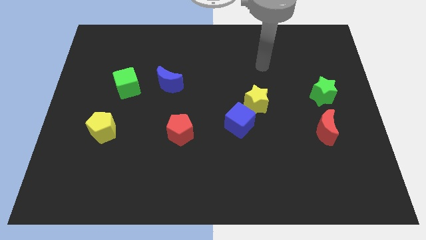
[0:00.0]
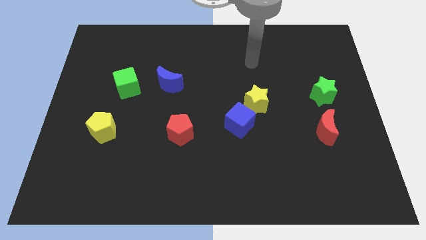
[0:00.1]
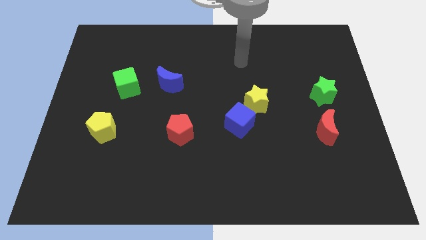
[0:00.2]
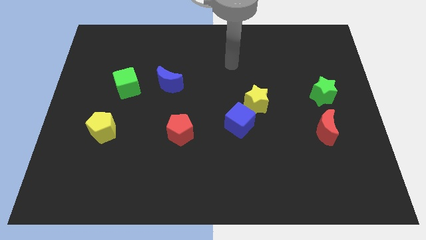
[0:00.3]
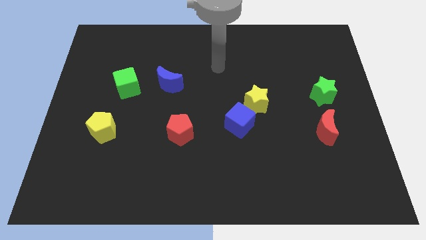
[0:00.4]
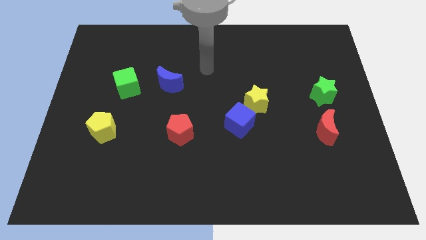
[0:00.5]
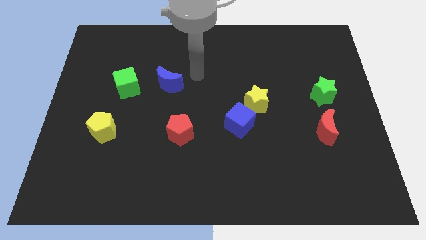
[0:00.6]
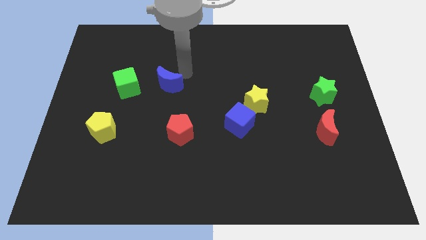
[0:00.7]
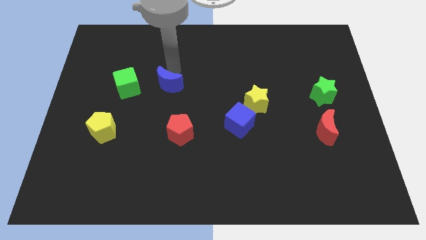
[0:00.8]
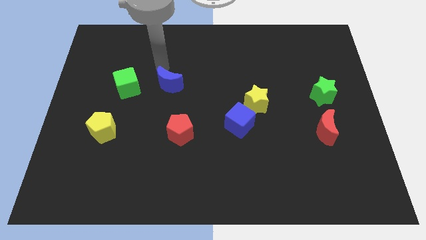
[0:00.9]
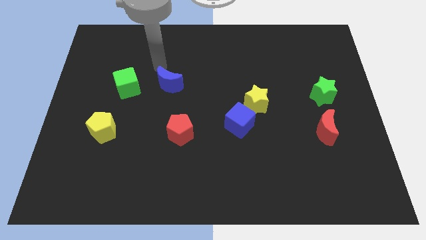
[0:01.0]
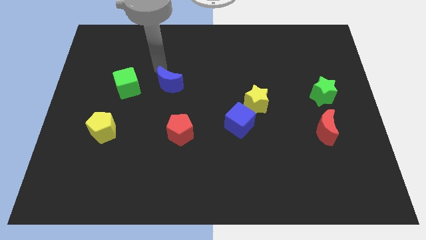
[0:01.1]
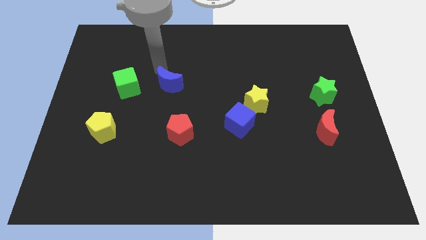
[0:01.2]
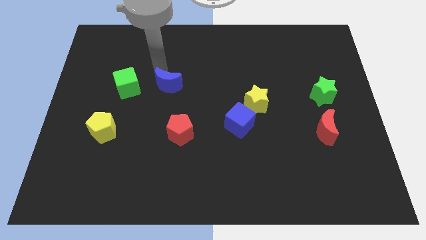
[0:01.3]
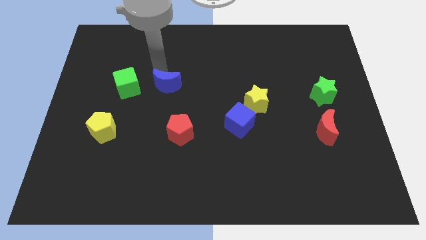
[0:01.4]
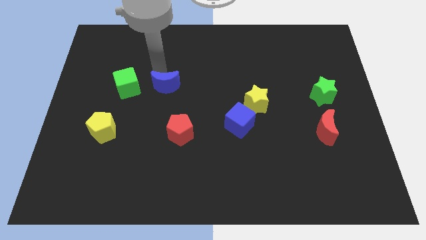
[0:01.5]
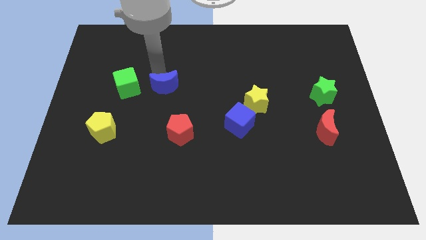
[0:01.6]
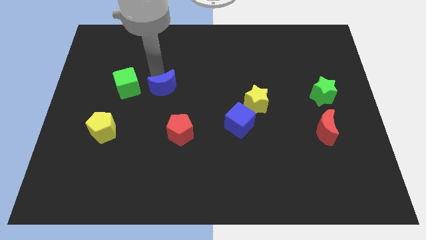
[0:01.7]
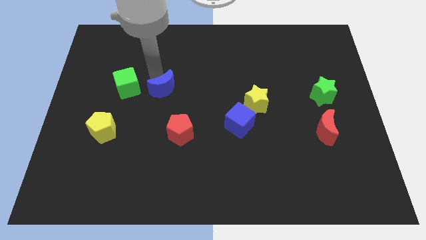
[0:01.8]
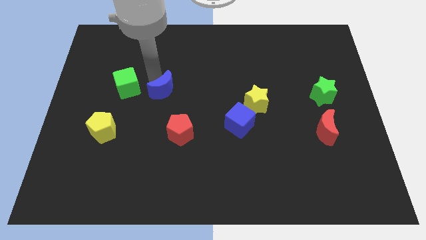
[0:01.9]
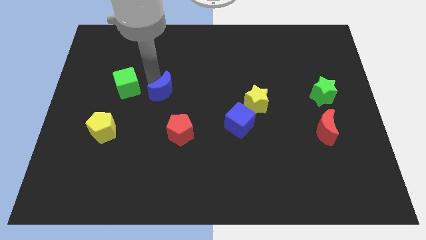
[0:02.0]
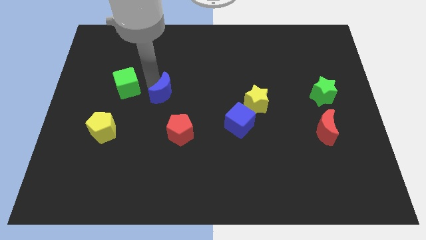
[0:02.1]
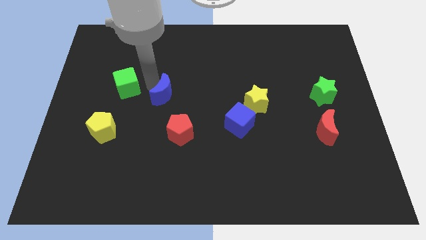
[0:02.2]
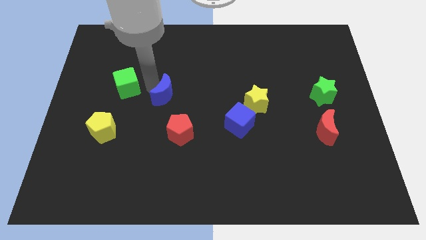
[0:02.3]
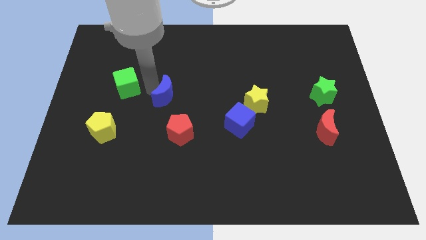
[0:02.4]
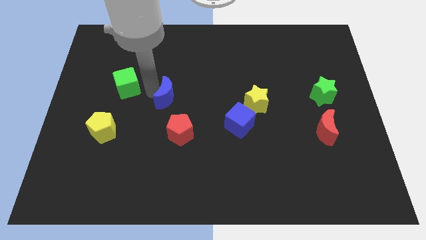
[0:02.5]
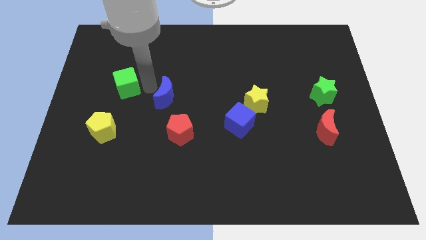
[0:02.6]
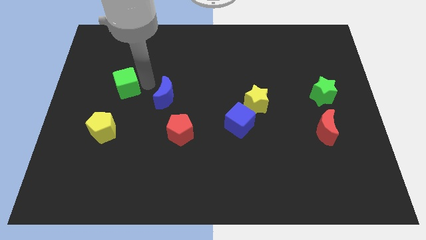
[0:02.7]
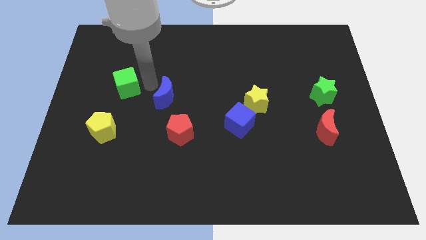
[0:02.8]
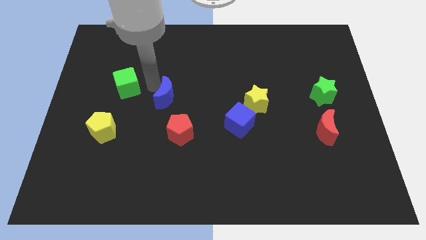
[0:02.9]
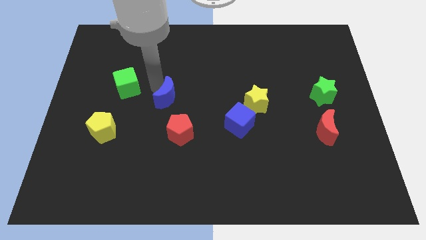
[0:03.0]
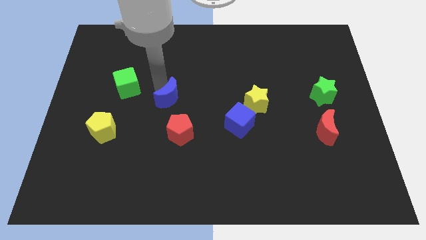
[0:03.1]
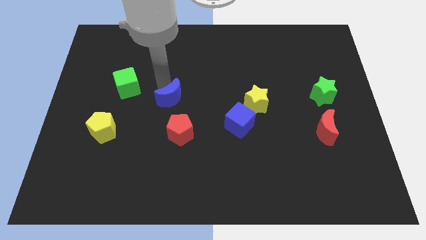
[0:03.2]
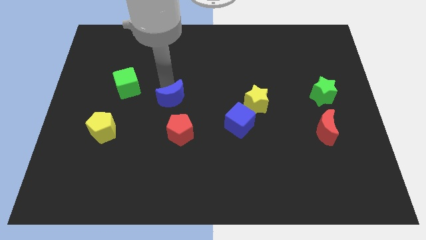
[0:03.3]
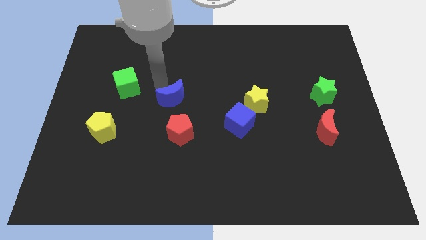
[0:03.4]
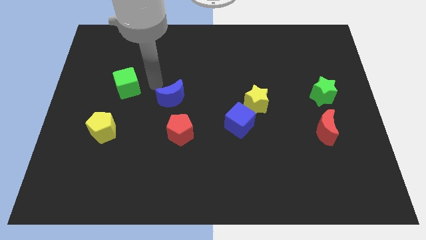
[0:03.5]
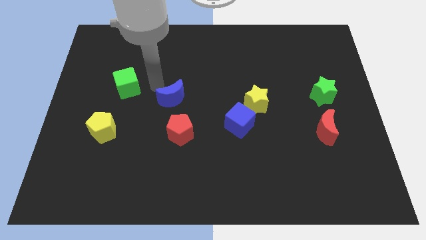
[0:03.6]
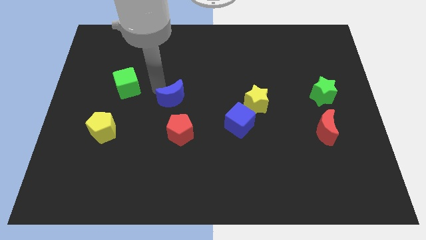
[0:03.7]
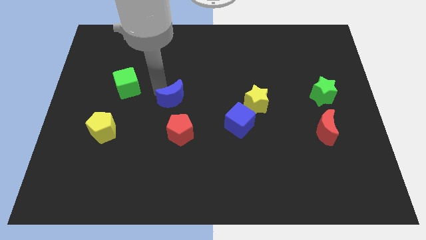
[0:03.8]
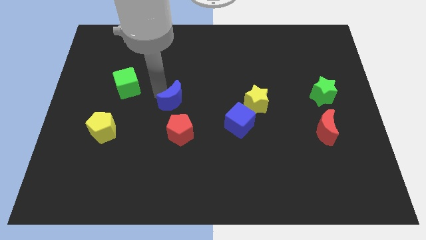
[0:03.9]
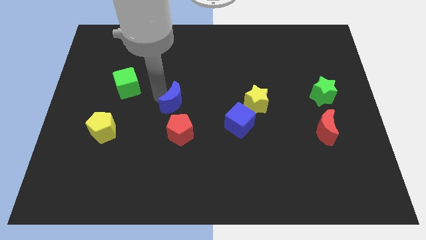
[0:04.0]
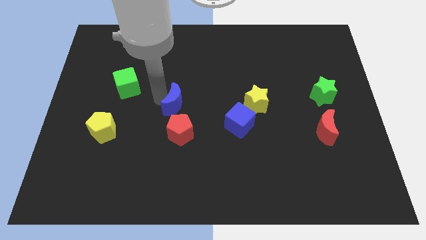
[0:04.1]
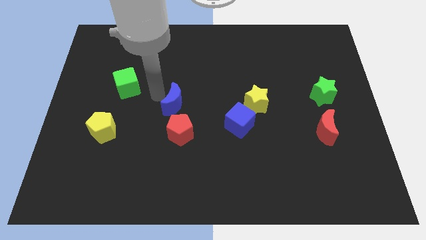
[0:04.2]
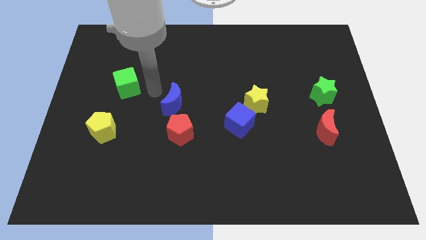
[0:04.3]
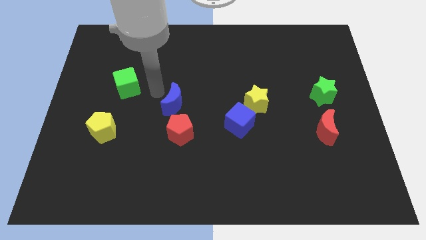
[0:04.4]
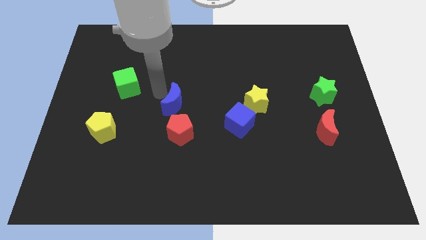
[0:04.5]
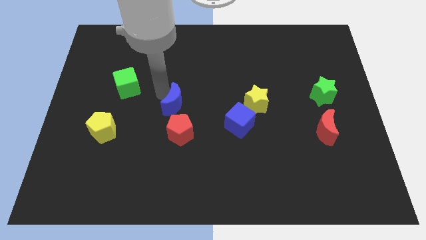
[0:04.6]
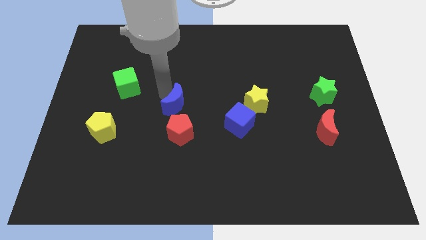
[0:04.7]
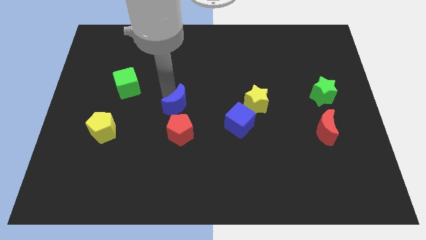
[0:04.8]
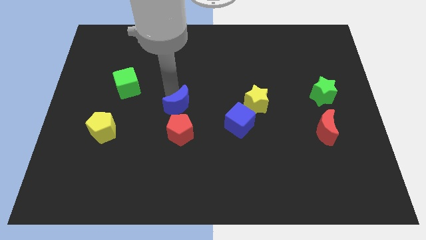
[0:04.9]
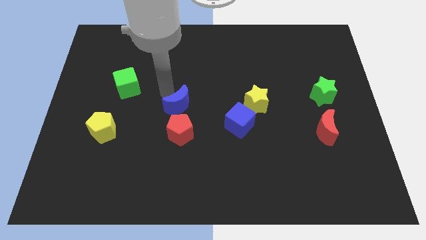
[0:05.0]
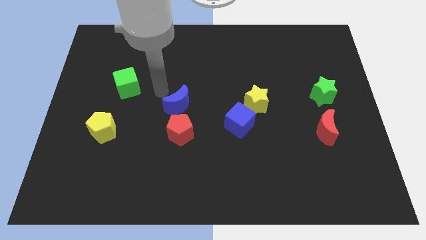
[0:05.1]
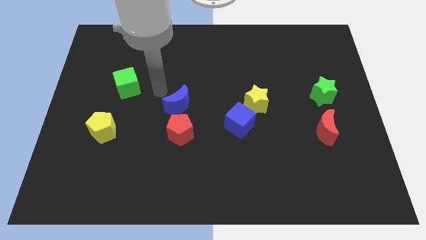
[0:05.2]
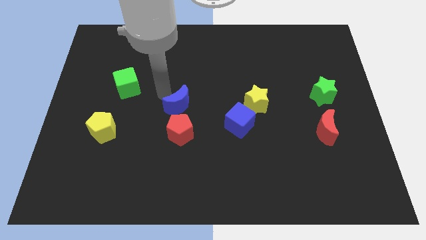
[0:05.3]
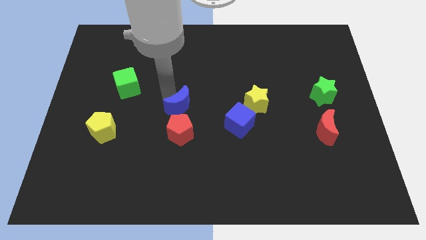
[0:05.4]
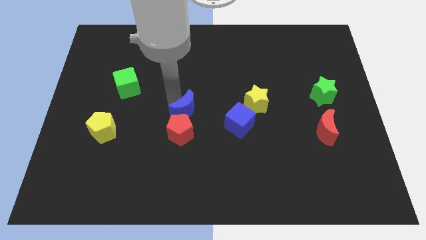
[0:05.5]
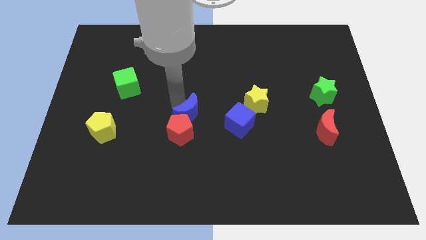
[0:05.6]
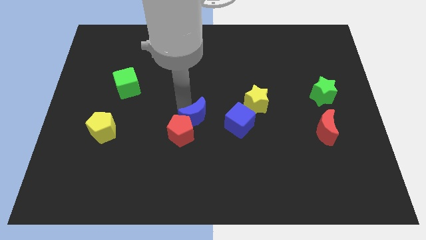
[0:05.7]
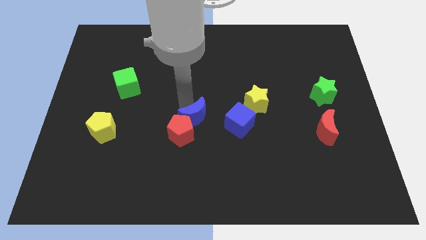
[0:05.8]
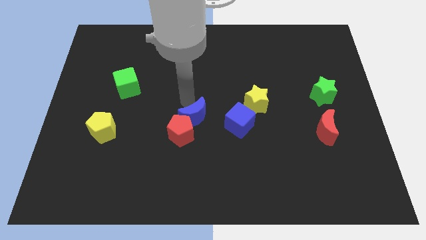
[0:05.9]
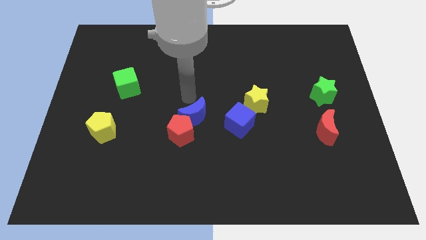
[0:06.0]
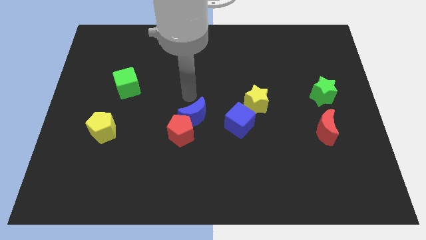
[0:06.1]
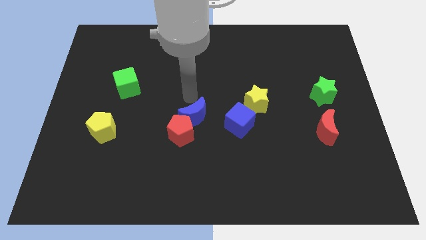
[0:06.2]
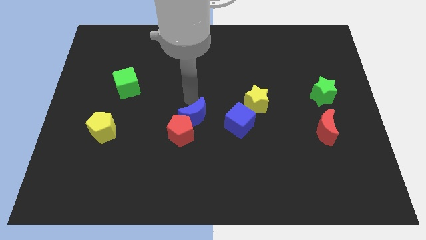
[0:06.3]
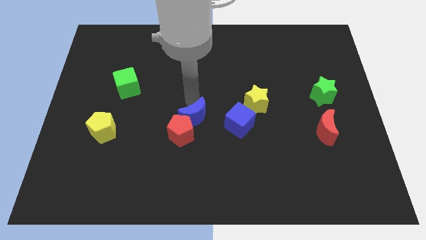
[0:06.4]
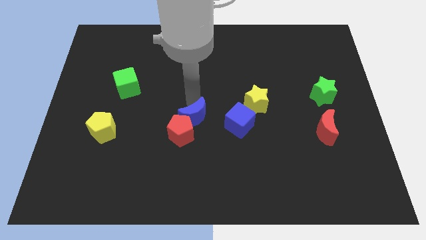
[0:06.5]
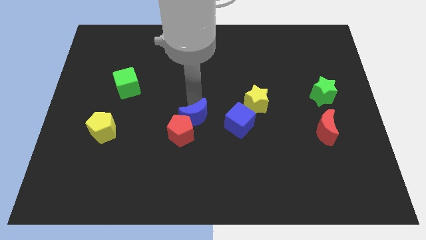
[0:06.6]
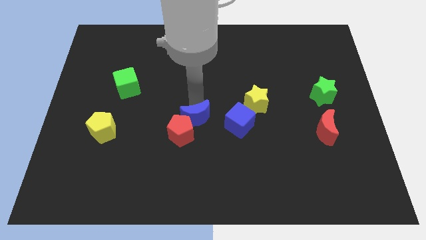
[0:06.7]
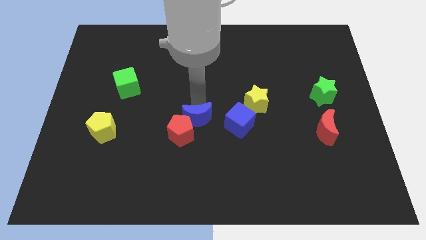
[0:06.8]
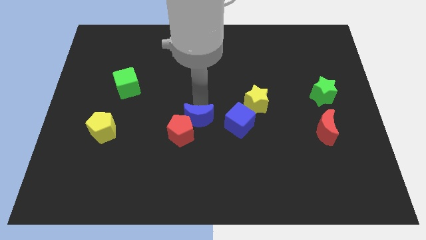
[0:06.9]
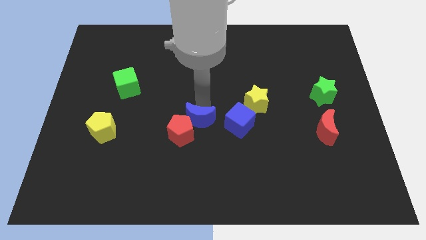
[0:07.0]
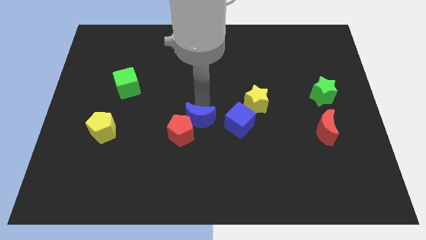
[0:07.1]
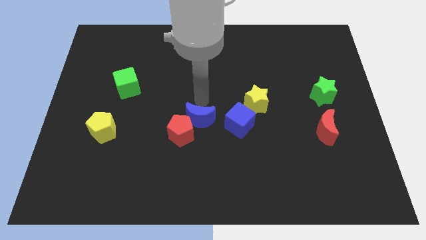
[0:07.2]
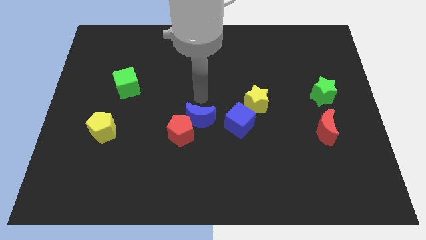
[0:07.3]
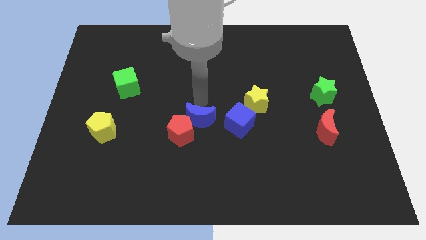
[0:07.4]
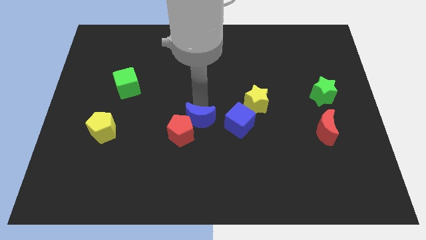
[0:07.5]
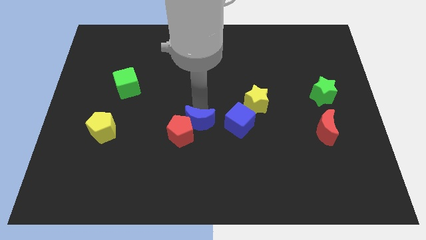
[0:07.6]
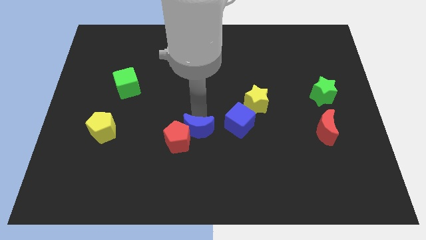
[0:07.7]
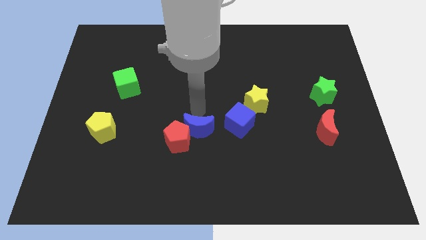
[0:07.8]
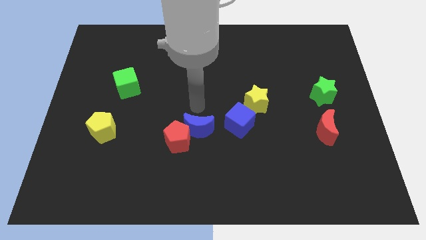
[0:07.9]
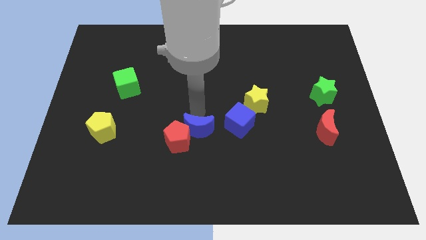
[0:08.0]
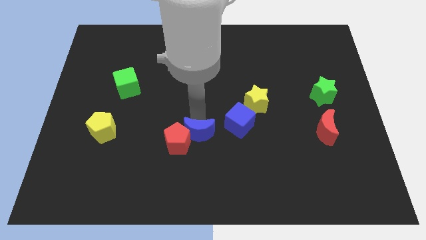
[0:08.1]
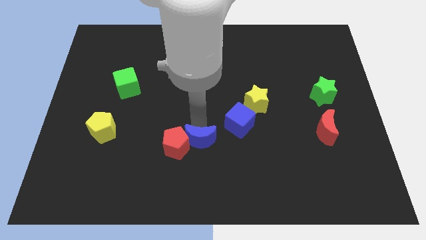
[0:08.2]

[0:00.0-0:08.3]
move the blue moon to the bottom right of the red pentagon
